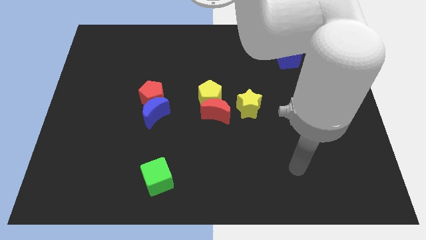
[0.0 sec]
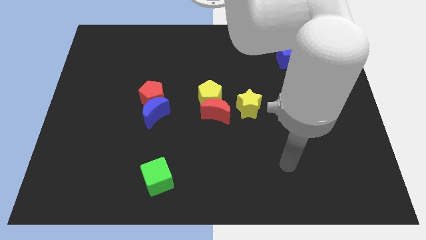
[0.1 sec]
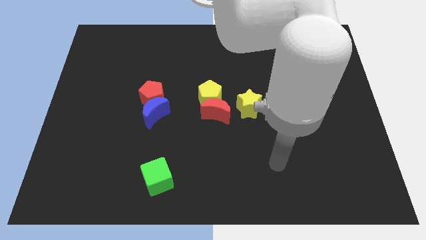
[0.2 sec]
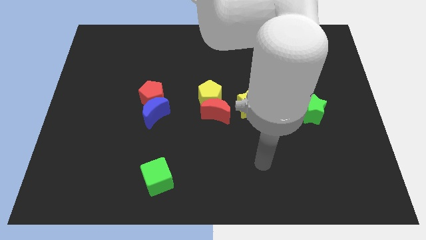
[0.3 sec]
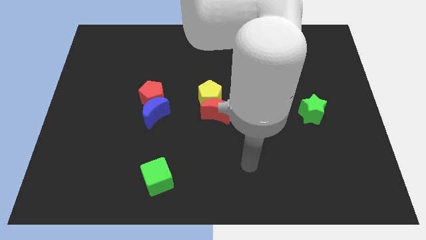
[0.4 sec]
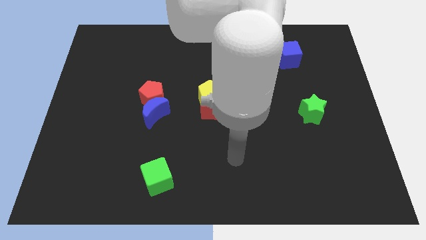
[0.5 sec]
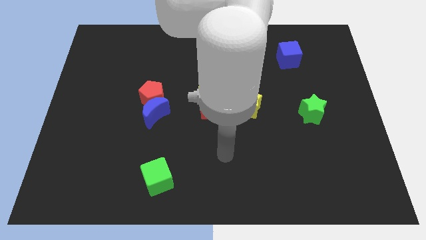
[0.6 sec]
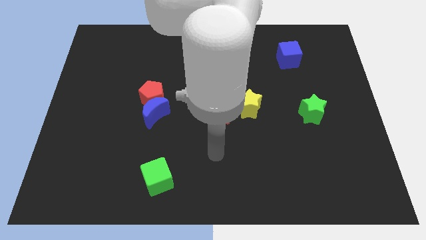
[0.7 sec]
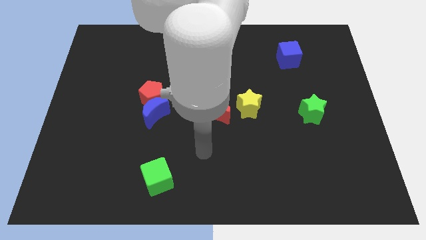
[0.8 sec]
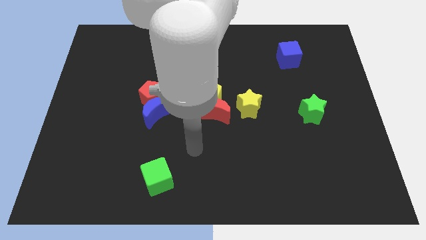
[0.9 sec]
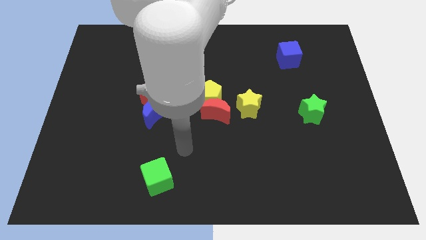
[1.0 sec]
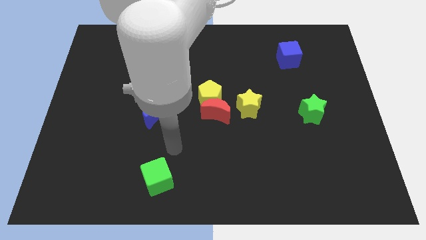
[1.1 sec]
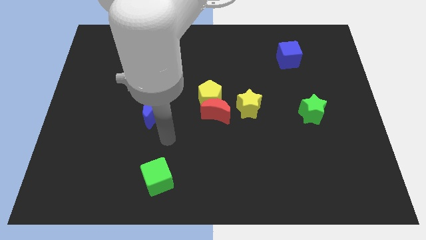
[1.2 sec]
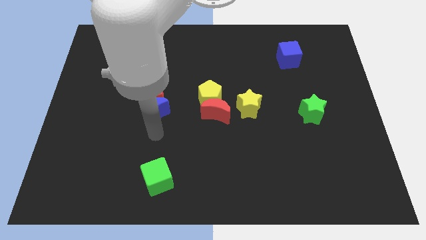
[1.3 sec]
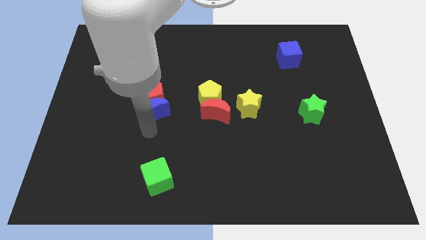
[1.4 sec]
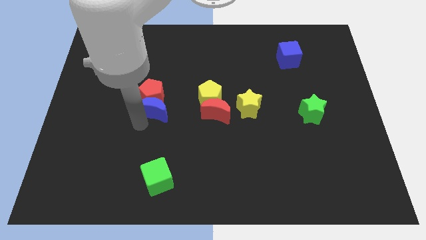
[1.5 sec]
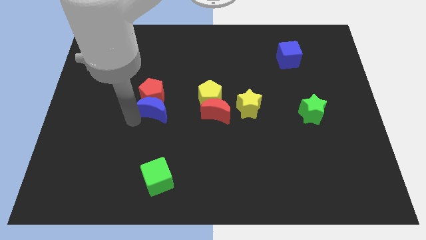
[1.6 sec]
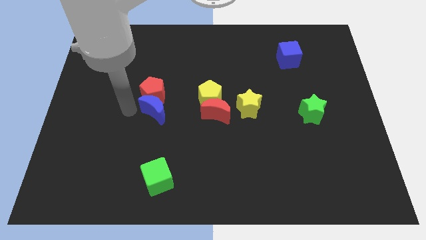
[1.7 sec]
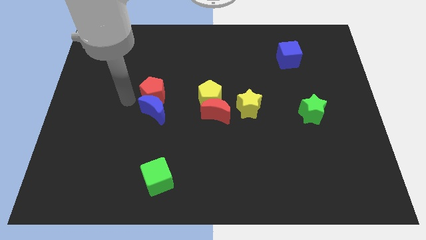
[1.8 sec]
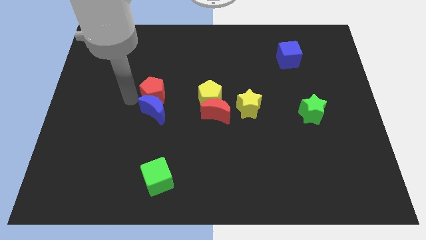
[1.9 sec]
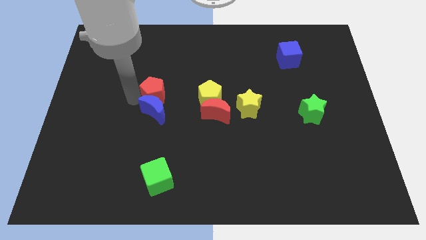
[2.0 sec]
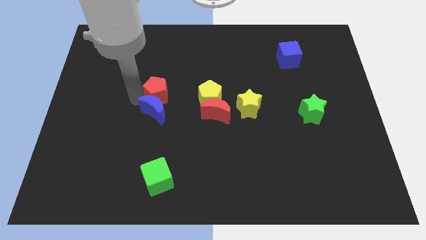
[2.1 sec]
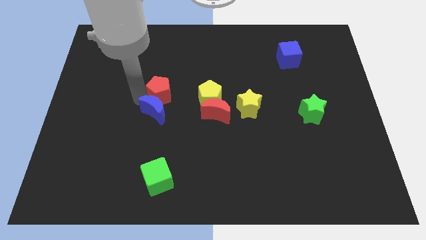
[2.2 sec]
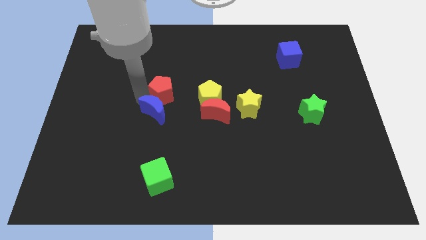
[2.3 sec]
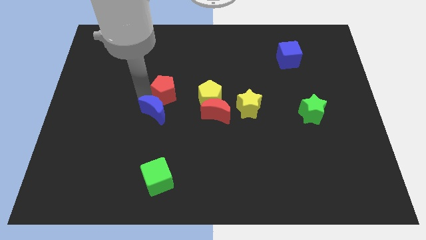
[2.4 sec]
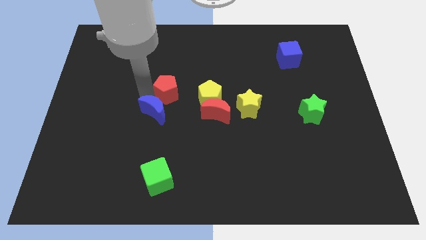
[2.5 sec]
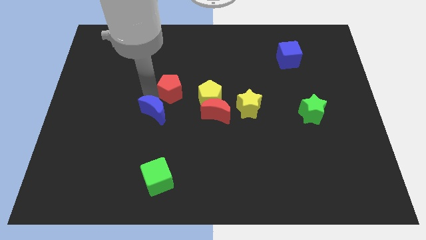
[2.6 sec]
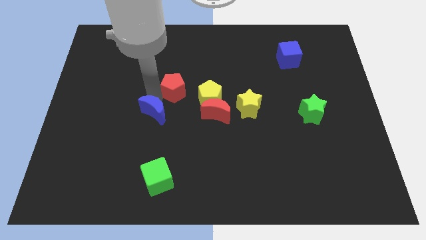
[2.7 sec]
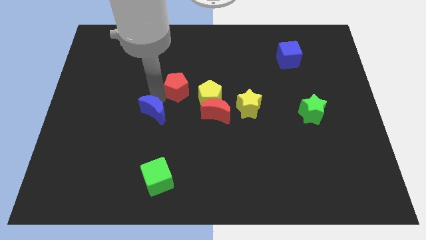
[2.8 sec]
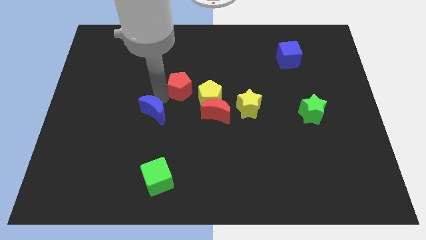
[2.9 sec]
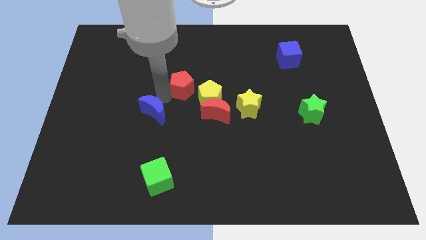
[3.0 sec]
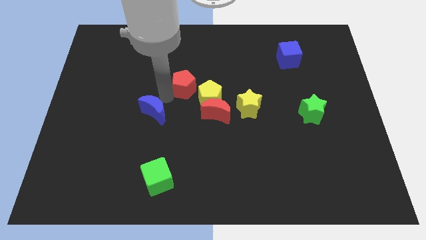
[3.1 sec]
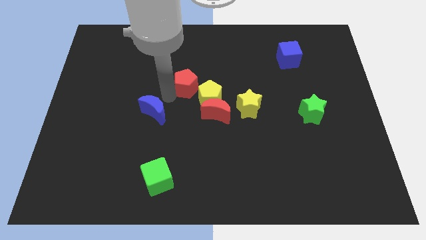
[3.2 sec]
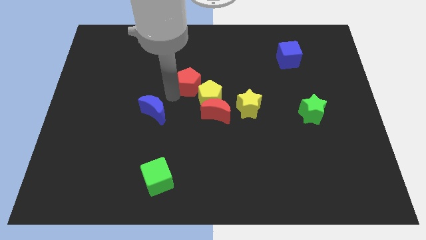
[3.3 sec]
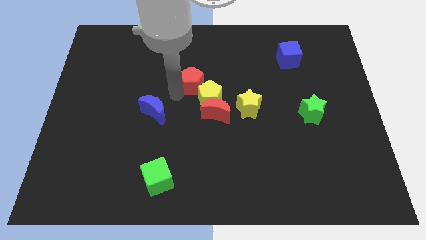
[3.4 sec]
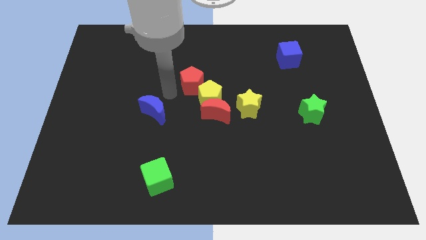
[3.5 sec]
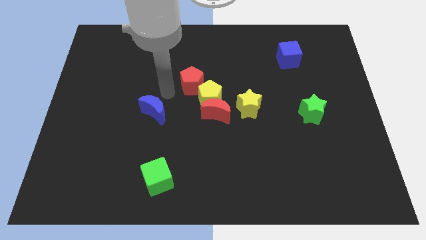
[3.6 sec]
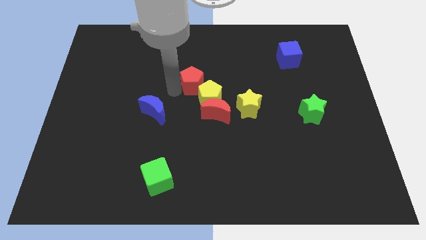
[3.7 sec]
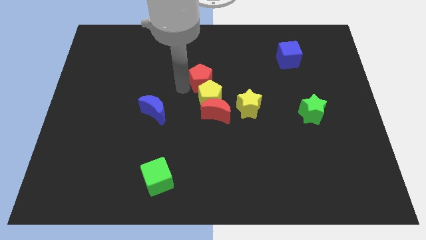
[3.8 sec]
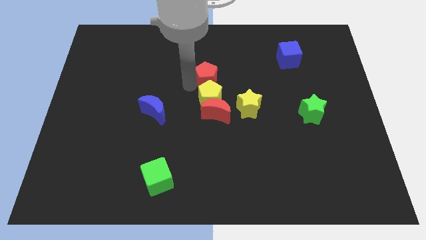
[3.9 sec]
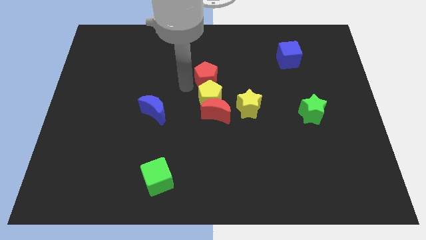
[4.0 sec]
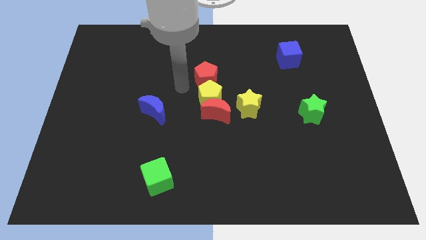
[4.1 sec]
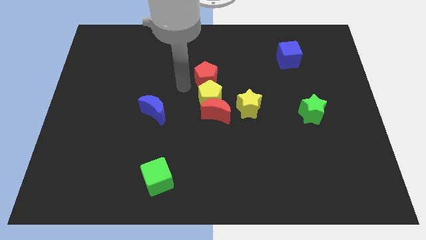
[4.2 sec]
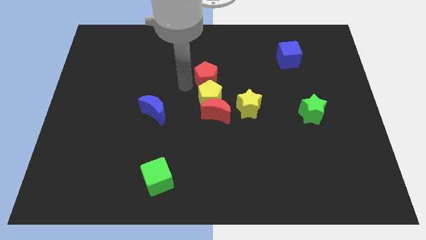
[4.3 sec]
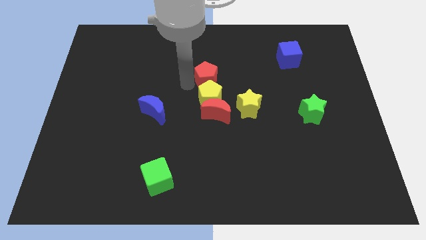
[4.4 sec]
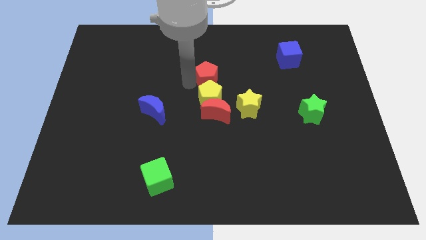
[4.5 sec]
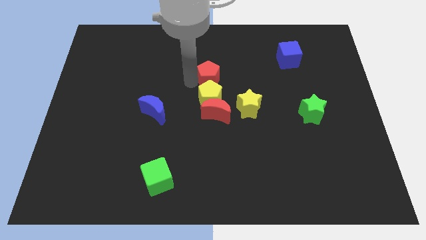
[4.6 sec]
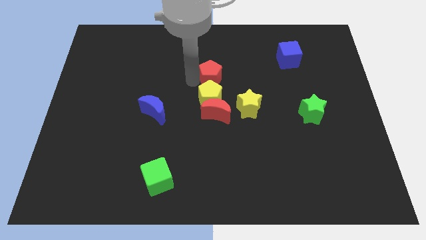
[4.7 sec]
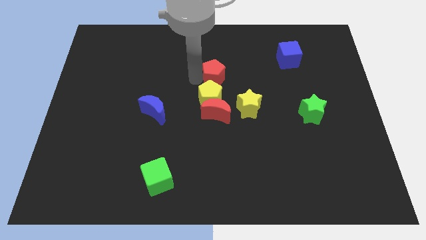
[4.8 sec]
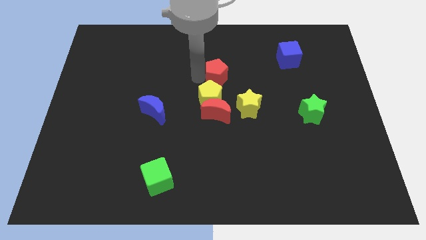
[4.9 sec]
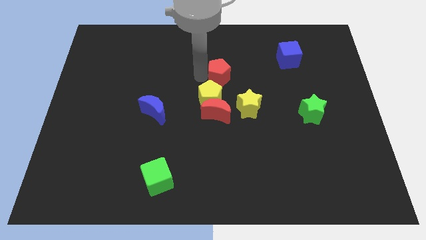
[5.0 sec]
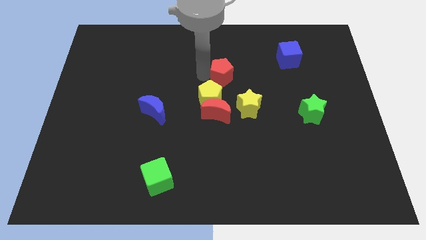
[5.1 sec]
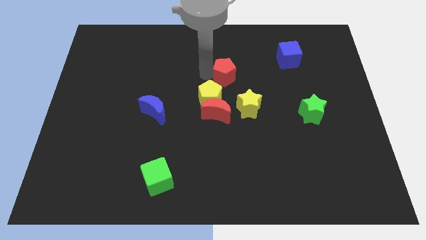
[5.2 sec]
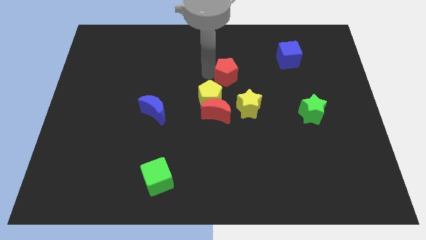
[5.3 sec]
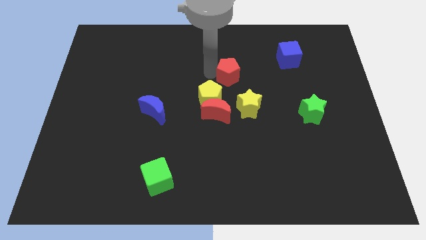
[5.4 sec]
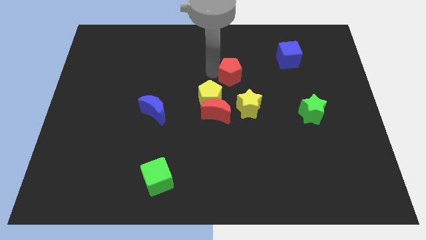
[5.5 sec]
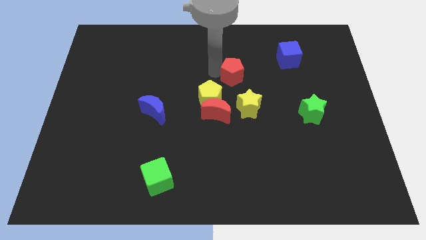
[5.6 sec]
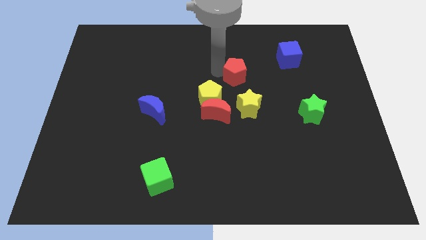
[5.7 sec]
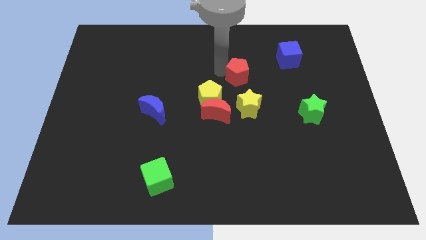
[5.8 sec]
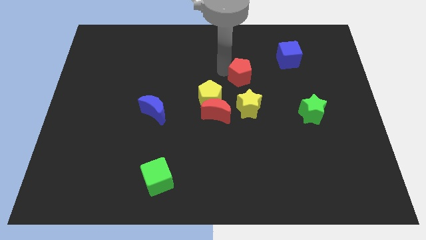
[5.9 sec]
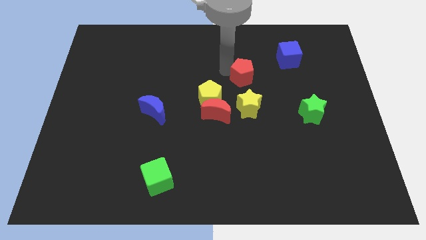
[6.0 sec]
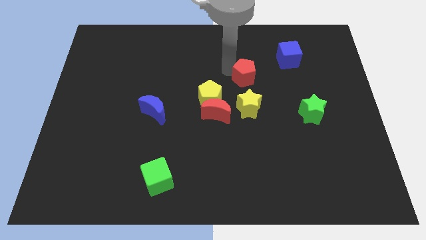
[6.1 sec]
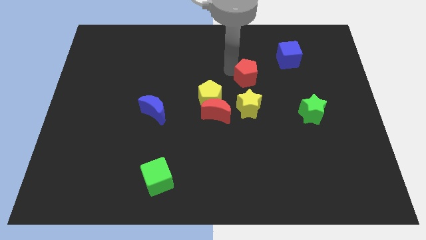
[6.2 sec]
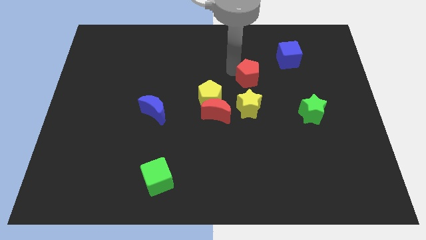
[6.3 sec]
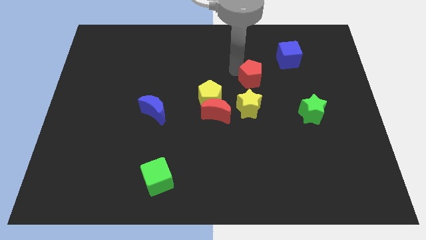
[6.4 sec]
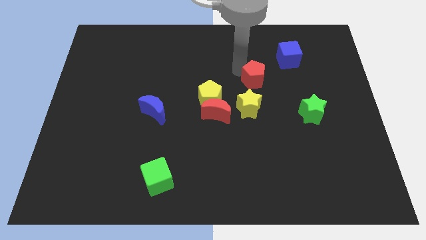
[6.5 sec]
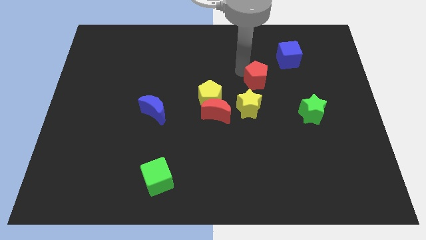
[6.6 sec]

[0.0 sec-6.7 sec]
slide the red pentagon diagonally up and to the right of the yellow star
